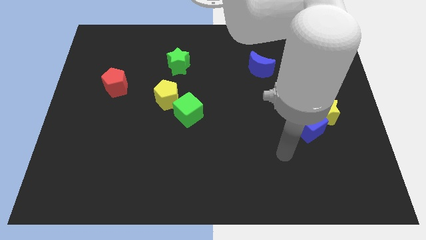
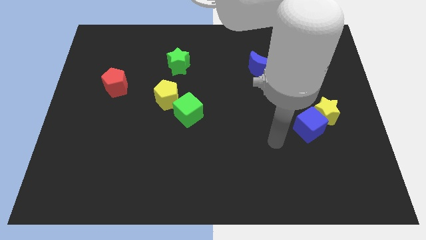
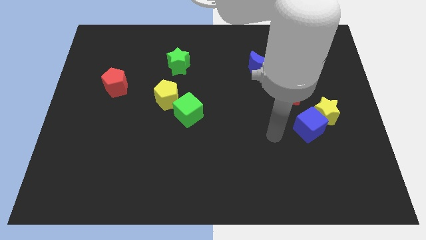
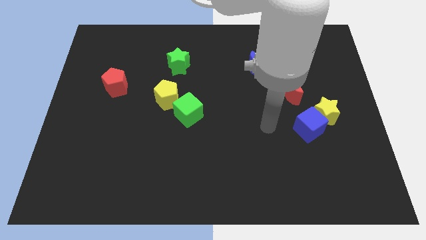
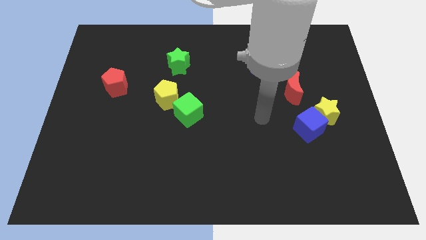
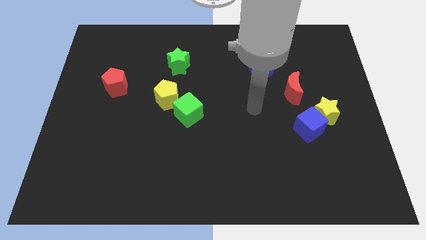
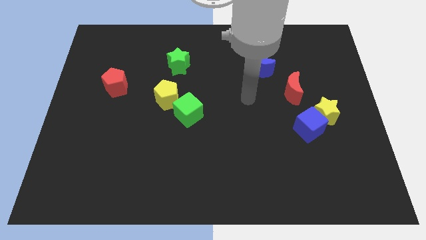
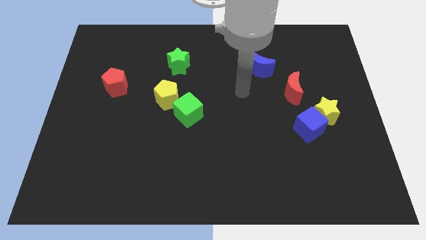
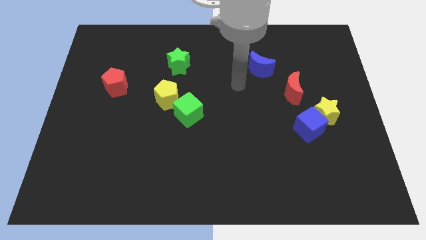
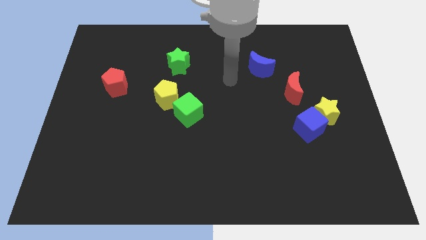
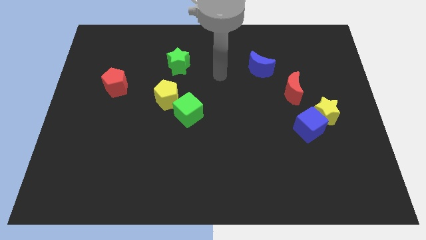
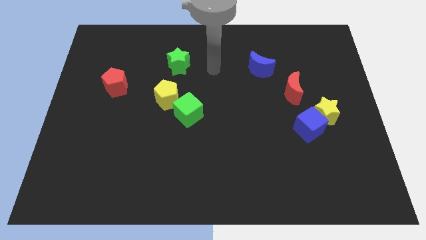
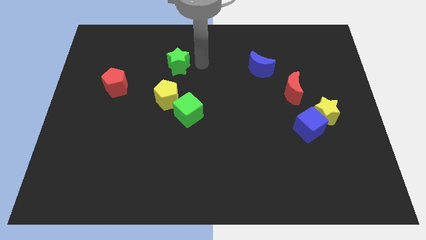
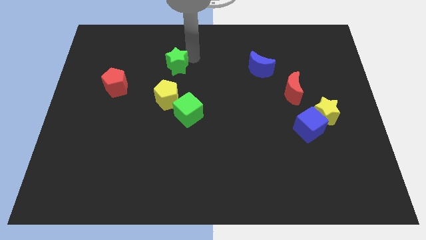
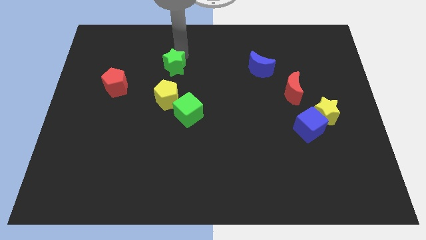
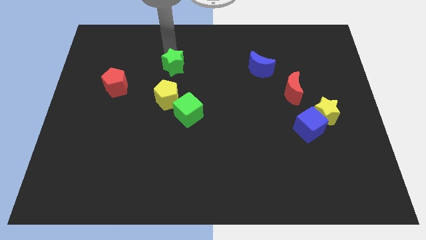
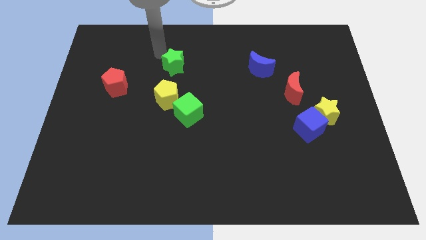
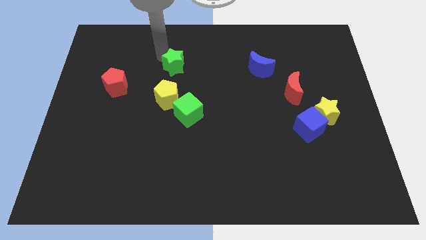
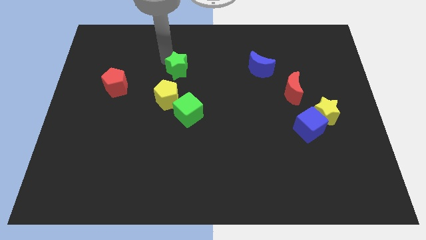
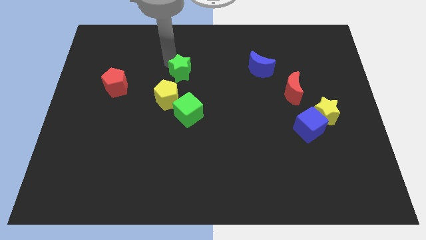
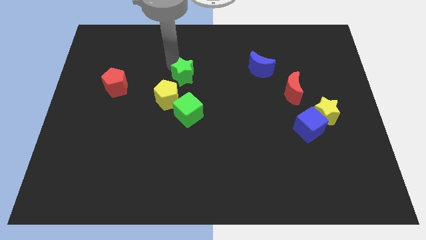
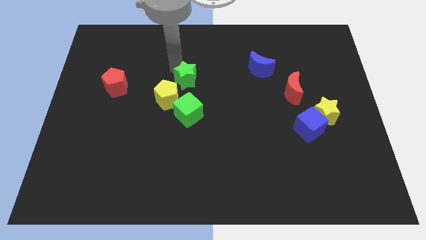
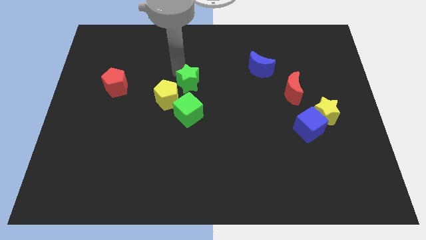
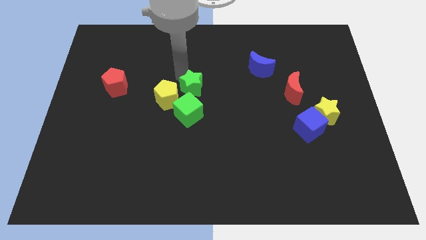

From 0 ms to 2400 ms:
slide the green star a little diagonally down and to the right

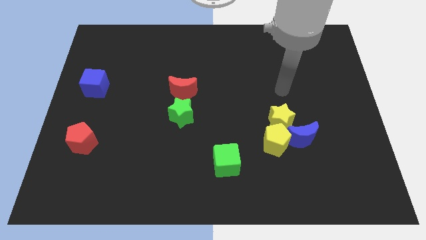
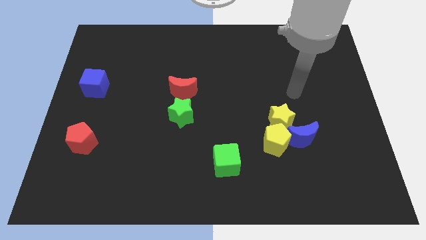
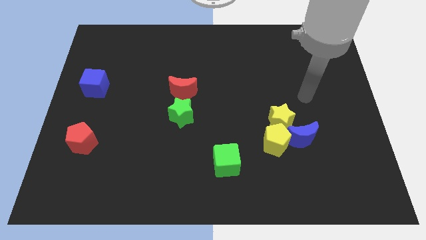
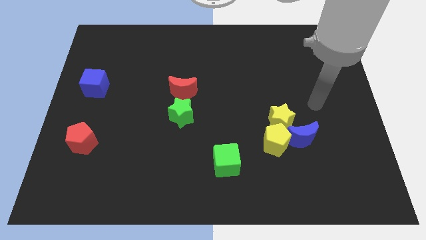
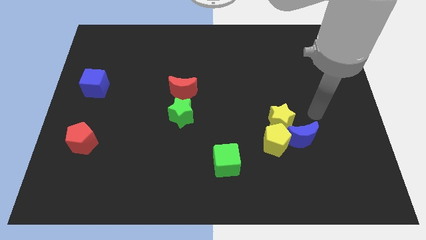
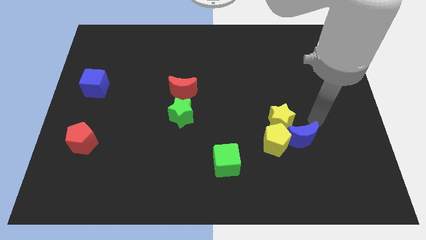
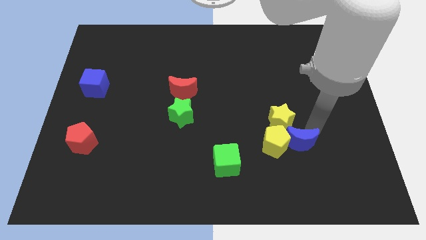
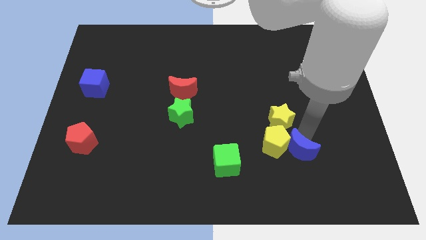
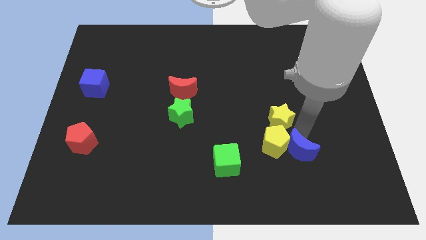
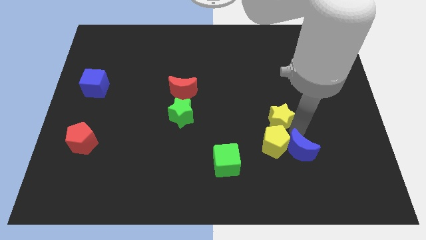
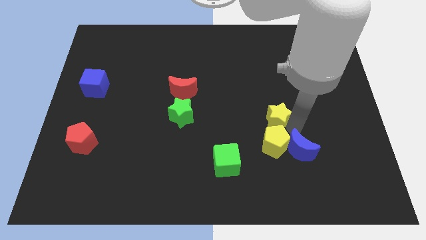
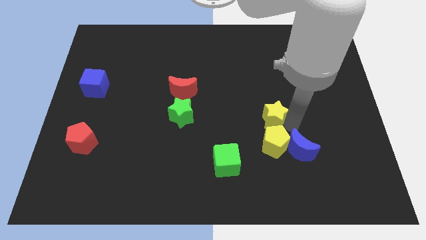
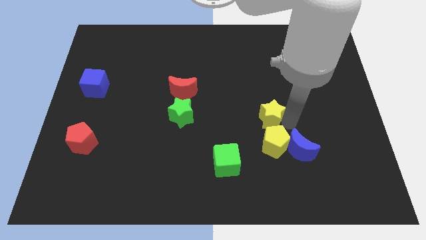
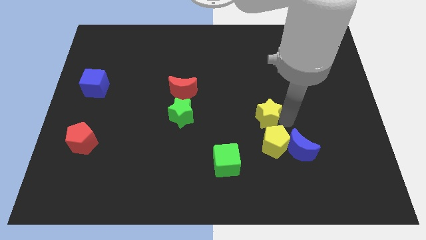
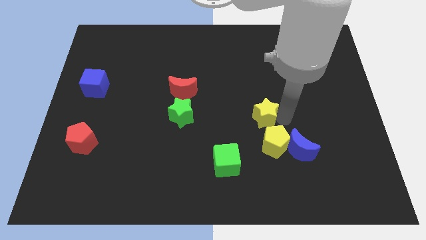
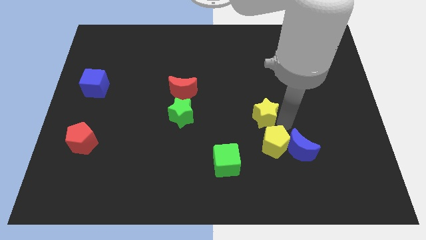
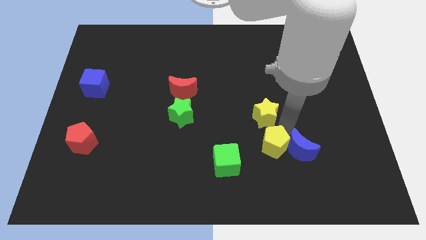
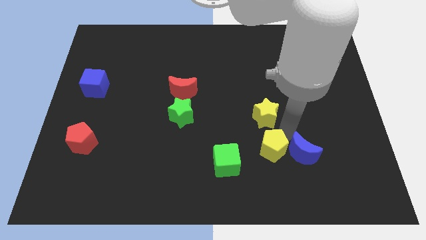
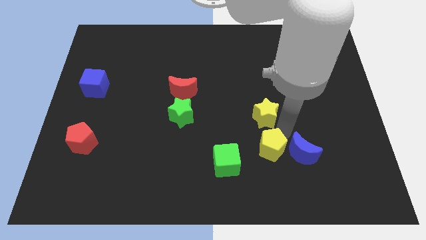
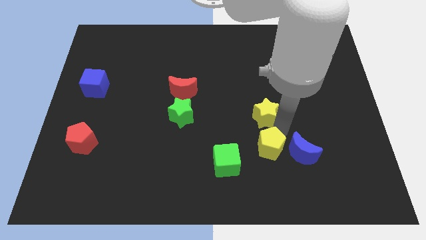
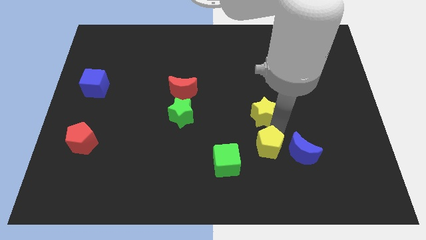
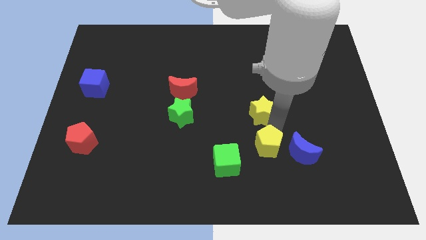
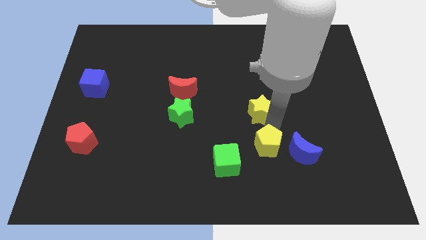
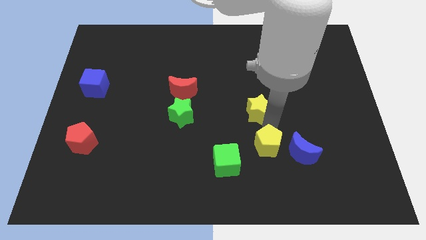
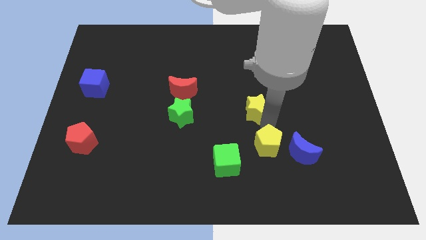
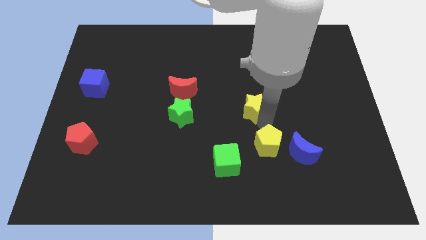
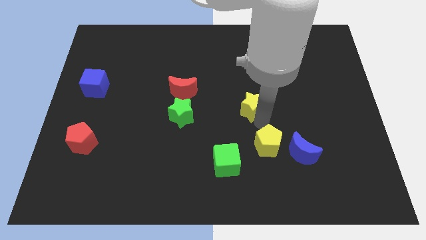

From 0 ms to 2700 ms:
push the yellow star upwards and to the left a little

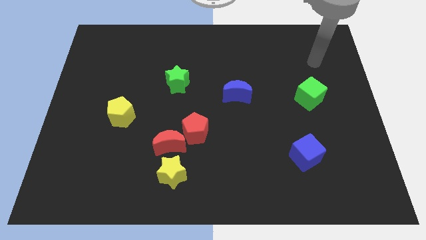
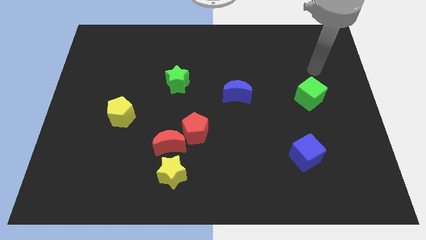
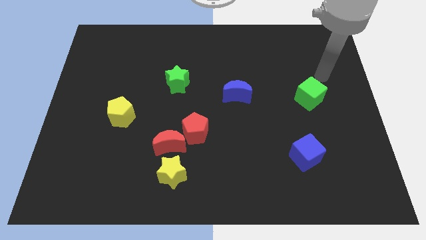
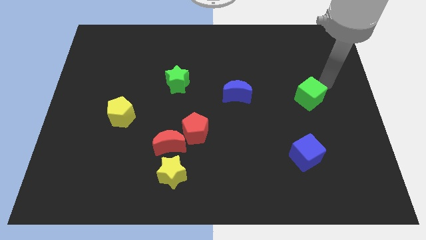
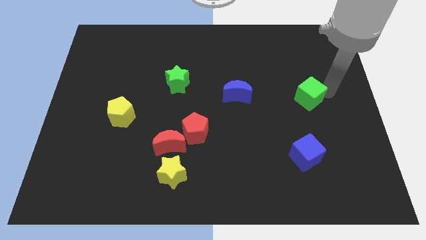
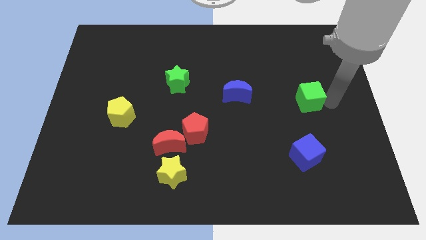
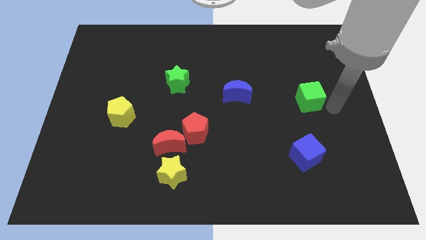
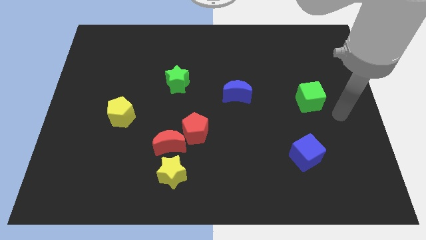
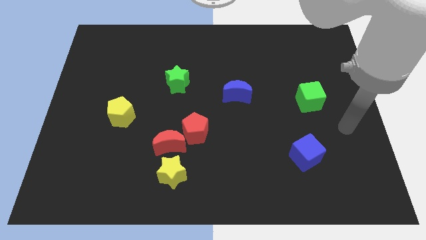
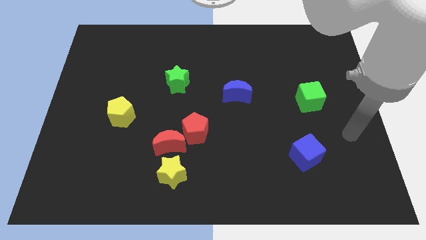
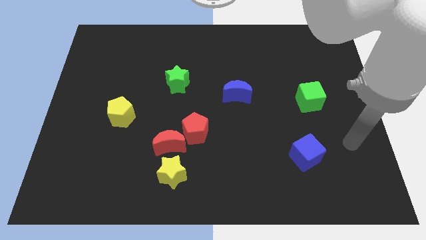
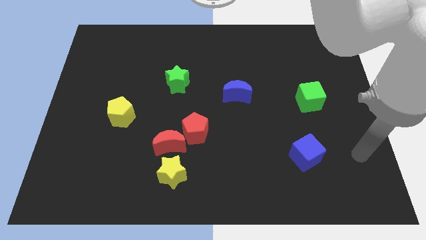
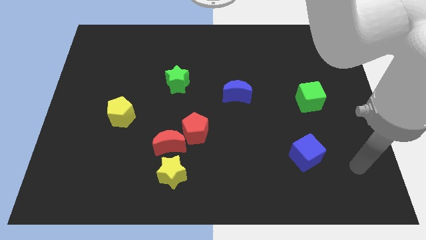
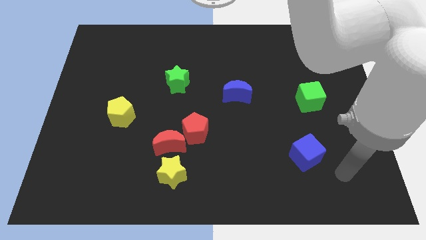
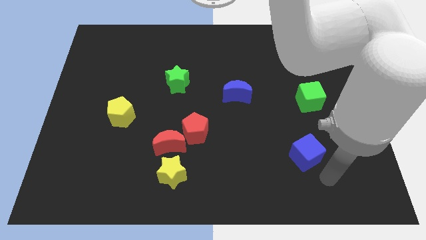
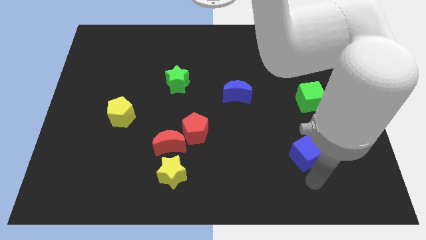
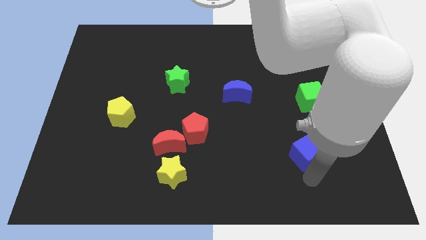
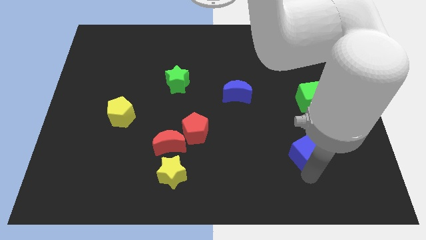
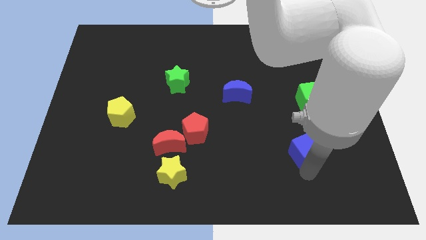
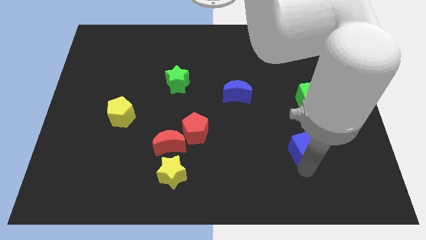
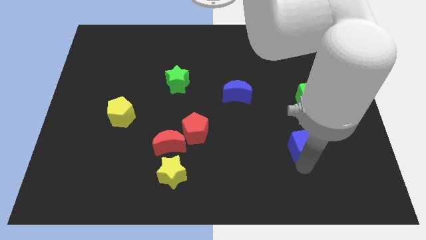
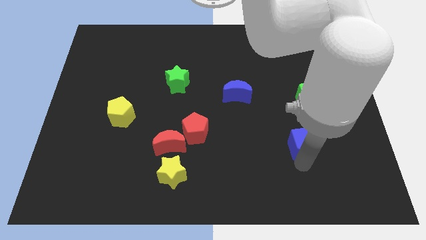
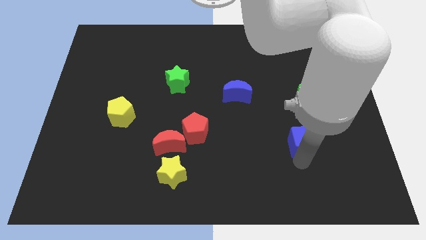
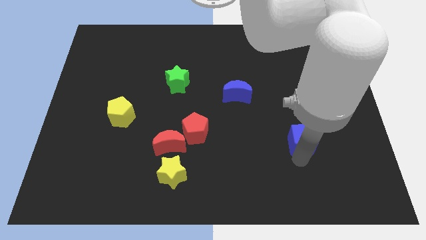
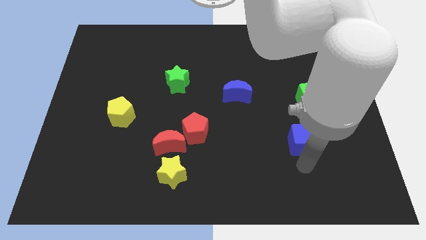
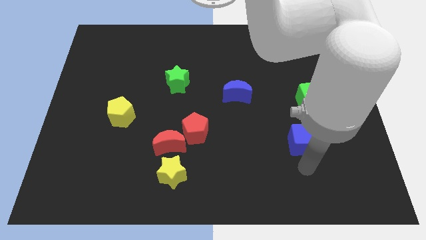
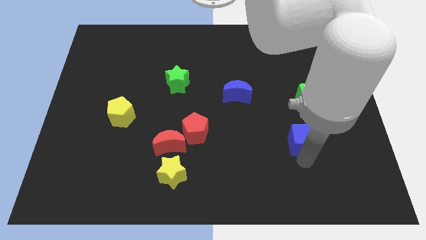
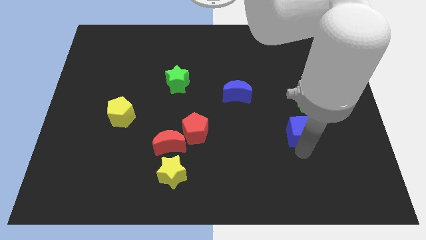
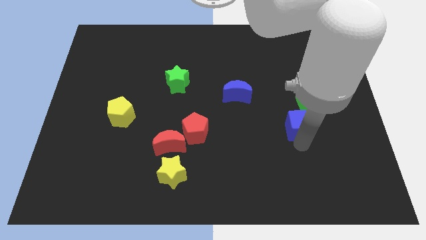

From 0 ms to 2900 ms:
slightly slide the blue cube upwards
